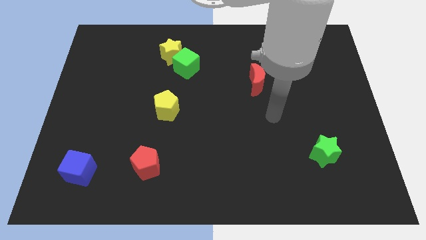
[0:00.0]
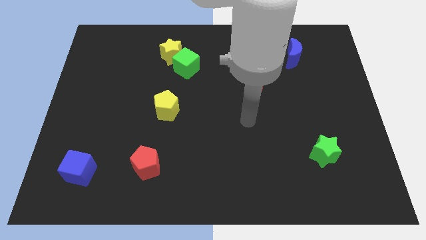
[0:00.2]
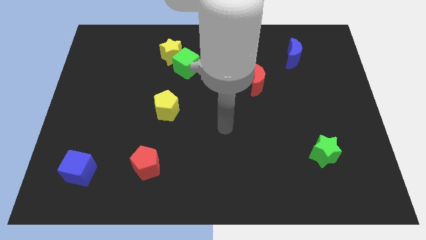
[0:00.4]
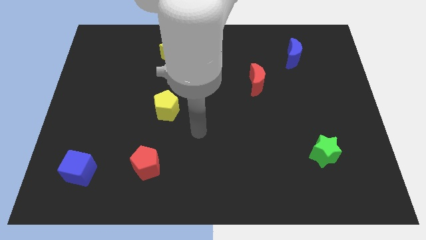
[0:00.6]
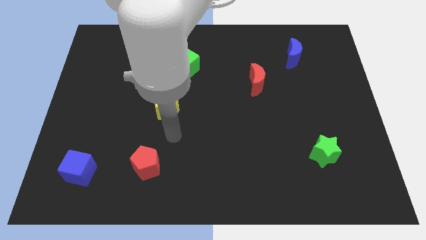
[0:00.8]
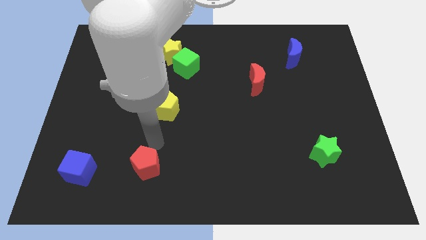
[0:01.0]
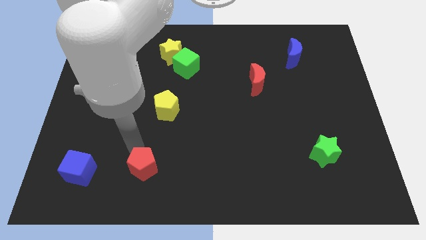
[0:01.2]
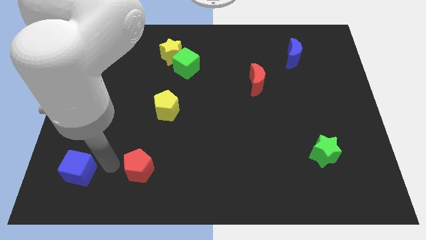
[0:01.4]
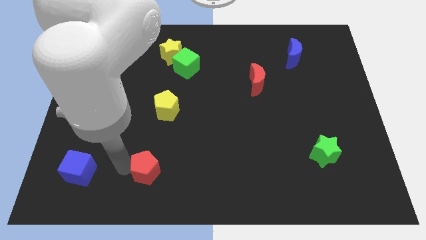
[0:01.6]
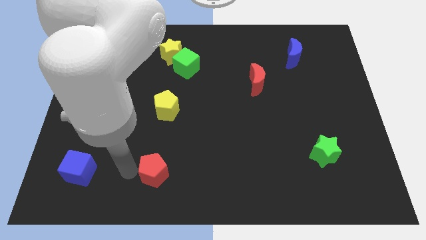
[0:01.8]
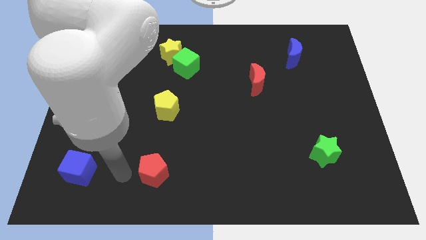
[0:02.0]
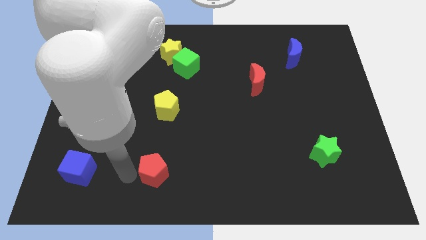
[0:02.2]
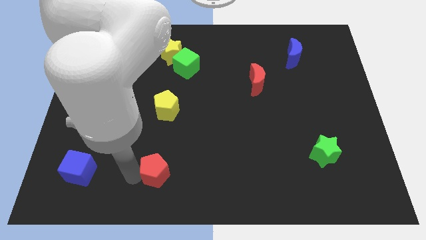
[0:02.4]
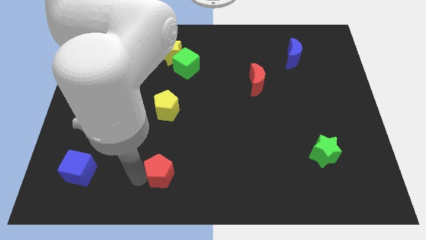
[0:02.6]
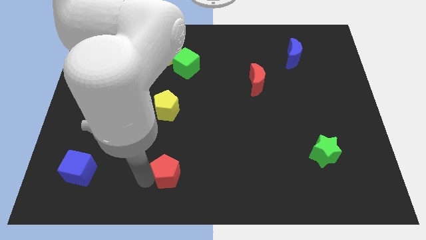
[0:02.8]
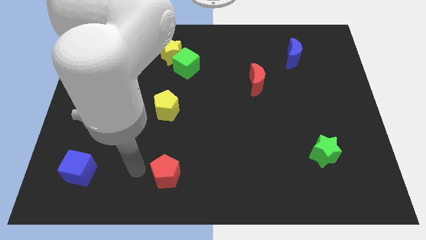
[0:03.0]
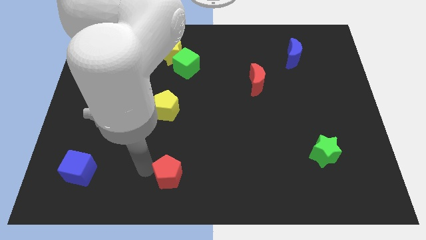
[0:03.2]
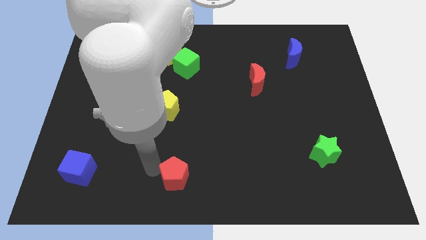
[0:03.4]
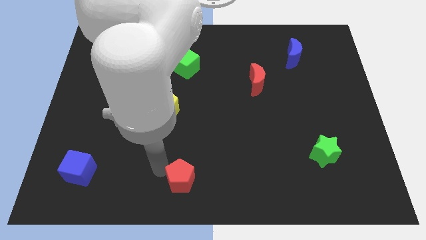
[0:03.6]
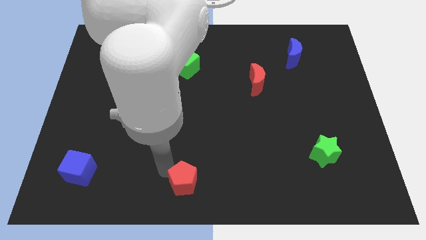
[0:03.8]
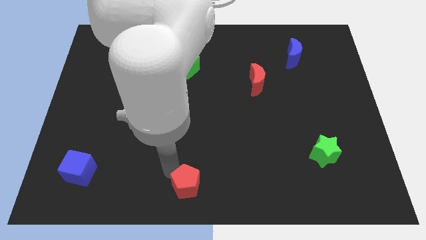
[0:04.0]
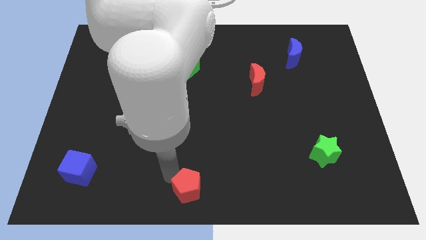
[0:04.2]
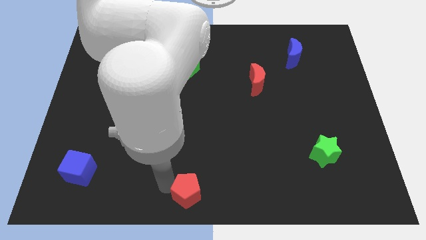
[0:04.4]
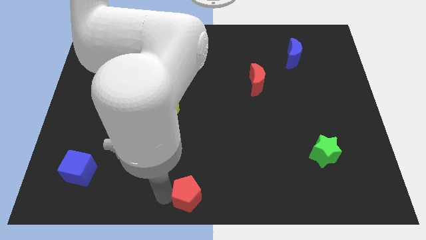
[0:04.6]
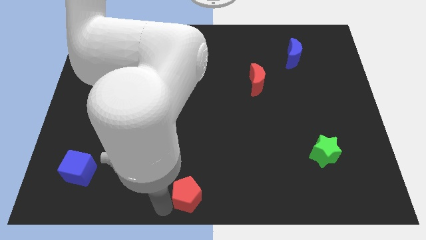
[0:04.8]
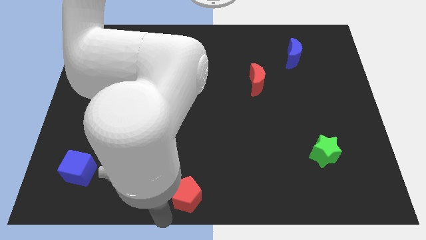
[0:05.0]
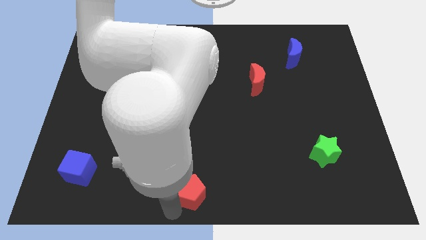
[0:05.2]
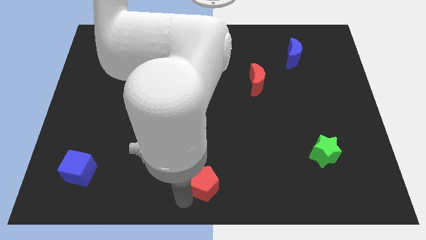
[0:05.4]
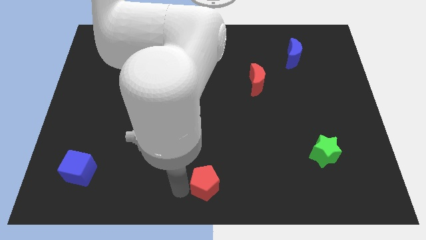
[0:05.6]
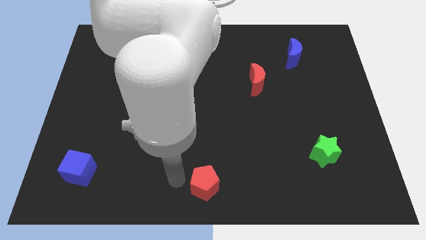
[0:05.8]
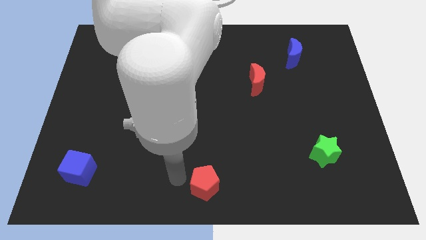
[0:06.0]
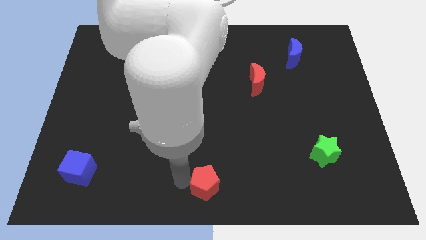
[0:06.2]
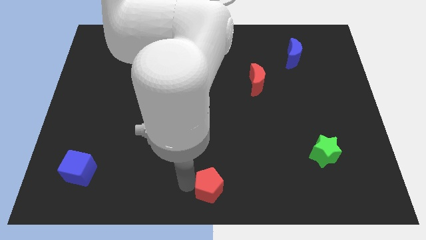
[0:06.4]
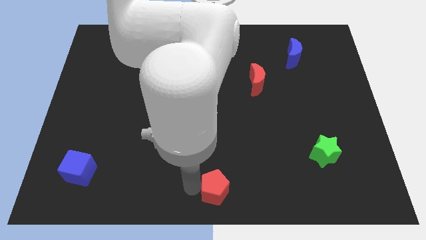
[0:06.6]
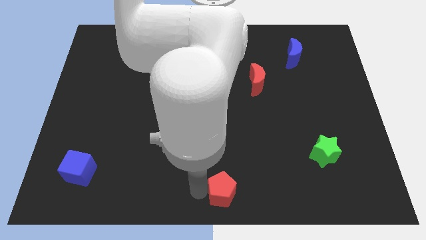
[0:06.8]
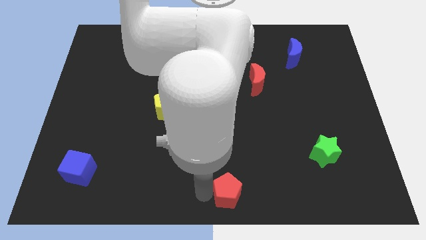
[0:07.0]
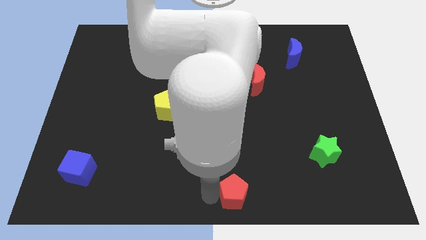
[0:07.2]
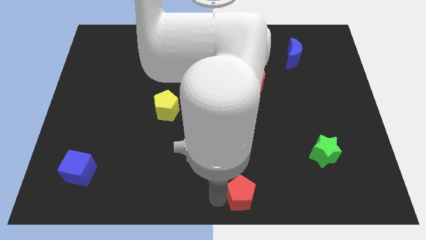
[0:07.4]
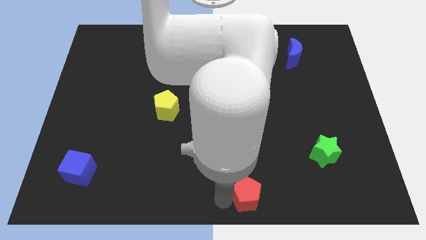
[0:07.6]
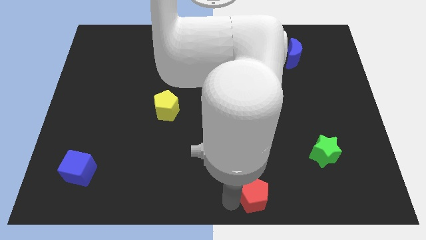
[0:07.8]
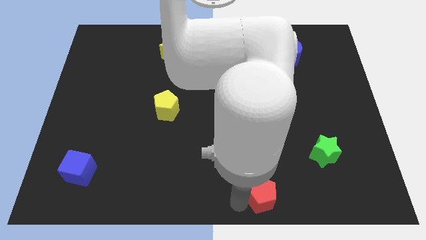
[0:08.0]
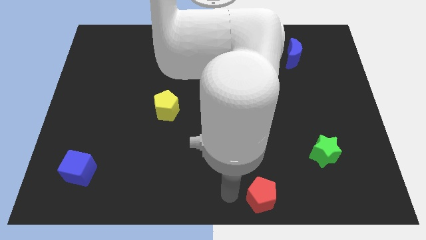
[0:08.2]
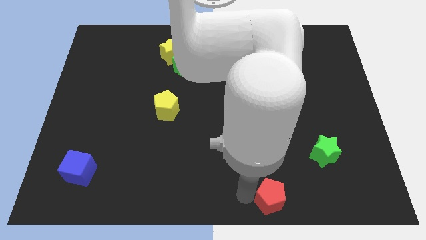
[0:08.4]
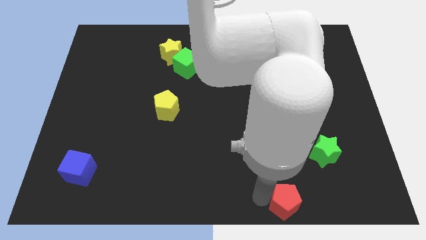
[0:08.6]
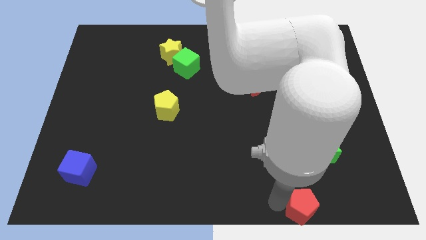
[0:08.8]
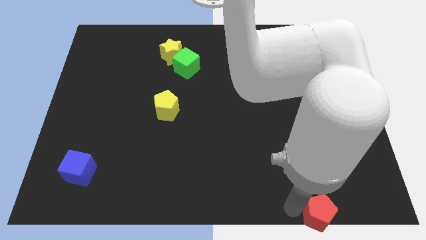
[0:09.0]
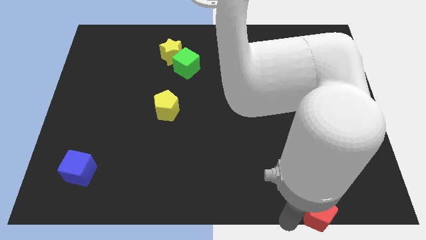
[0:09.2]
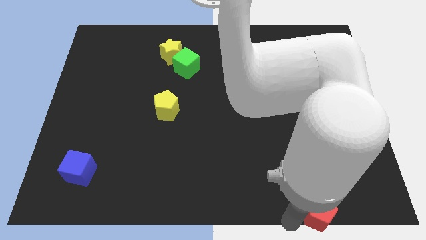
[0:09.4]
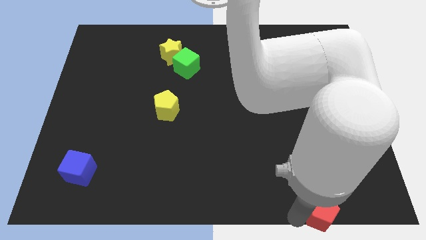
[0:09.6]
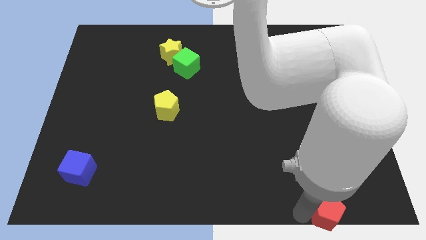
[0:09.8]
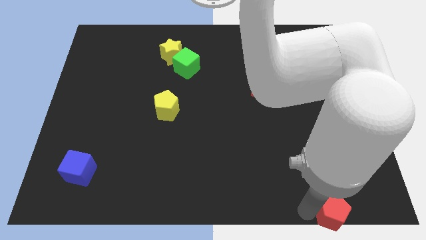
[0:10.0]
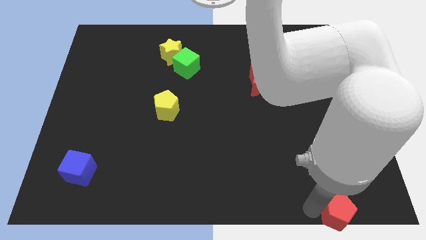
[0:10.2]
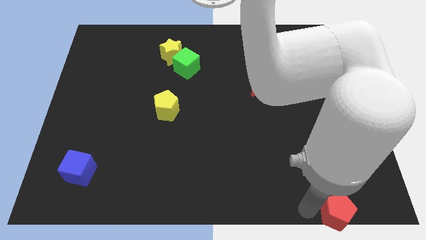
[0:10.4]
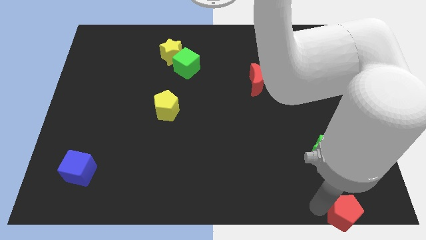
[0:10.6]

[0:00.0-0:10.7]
push the red pentagon to the bottom right corner

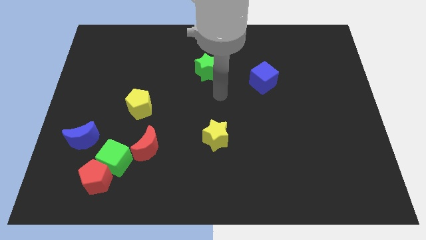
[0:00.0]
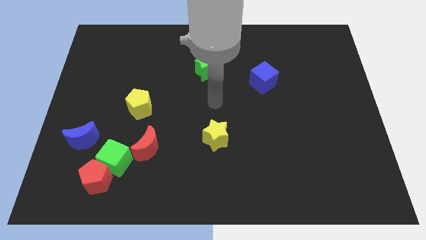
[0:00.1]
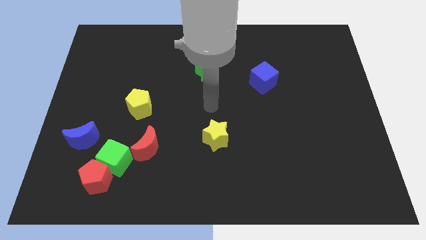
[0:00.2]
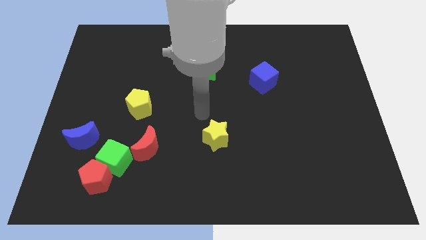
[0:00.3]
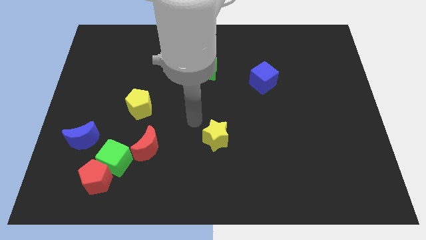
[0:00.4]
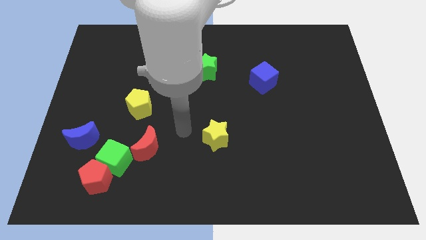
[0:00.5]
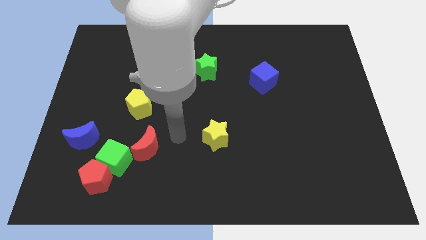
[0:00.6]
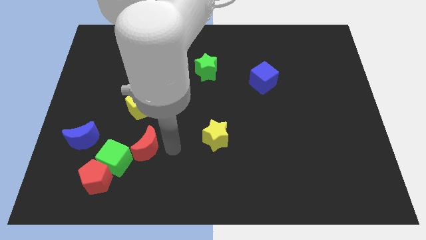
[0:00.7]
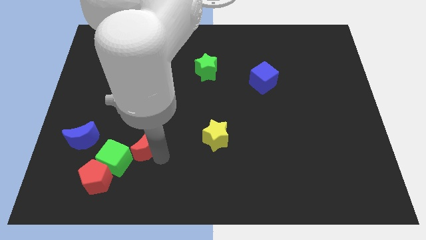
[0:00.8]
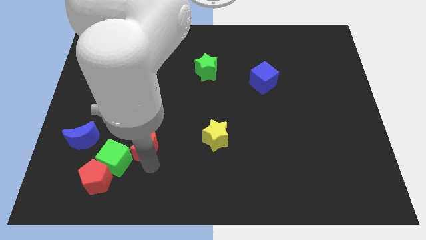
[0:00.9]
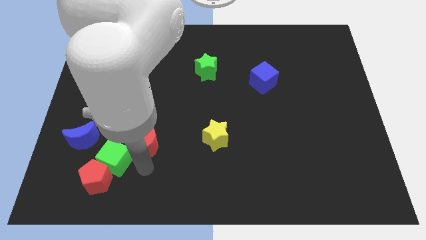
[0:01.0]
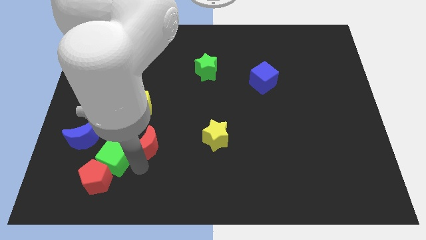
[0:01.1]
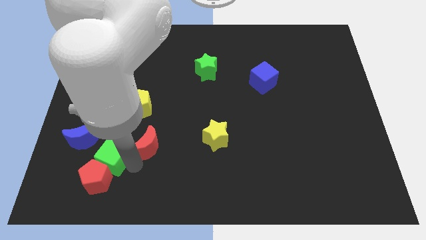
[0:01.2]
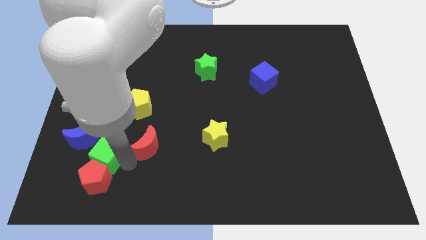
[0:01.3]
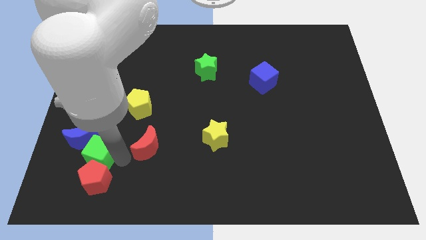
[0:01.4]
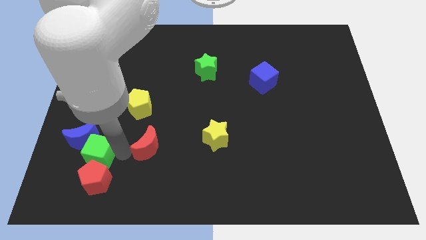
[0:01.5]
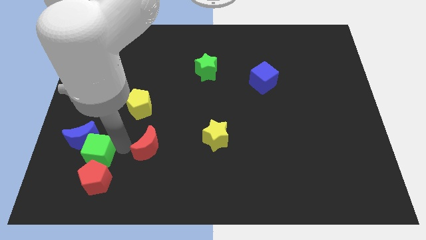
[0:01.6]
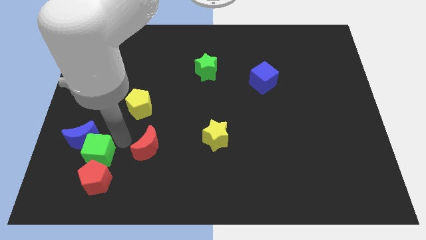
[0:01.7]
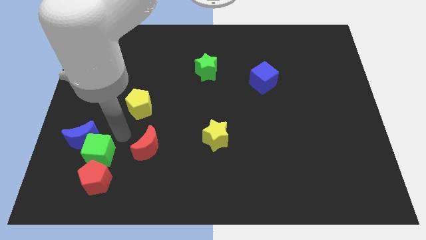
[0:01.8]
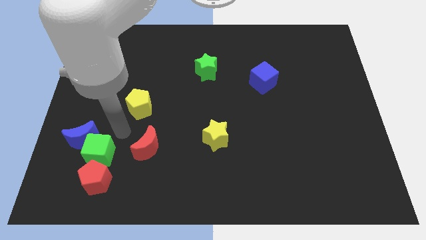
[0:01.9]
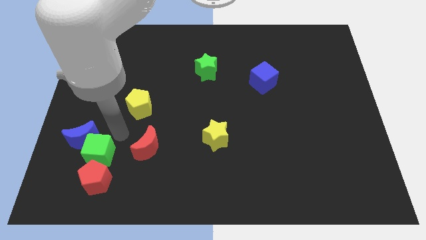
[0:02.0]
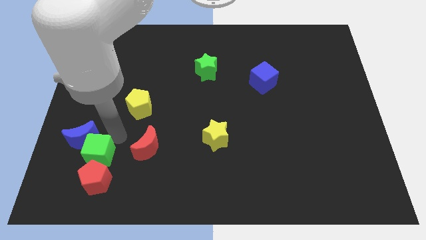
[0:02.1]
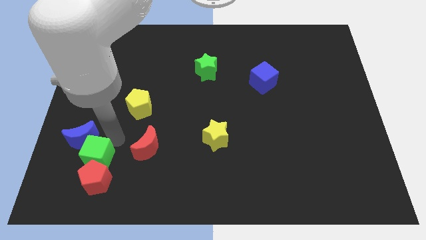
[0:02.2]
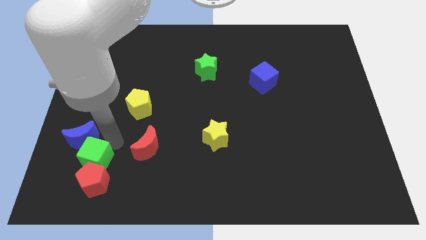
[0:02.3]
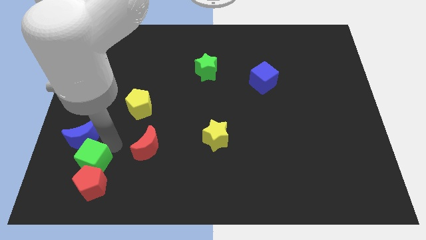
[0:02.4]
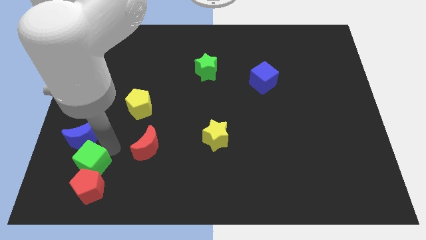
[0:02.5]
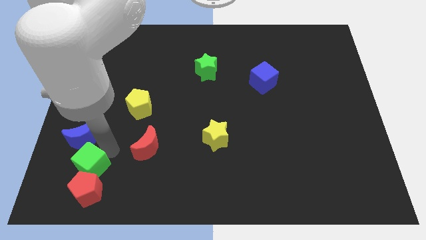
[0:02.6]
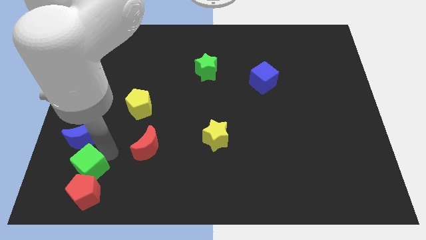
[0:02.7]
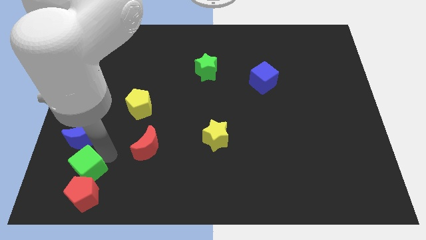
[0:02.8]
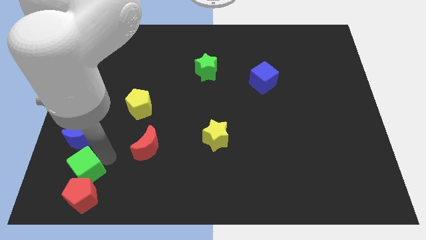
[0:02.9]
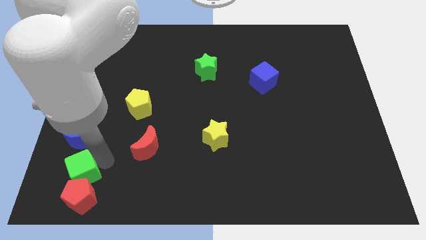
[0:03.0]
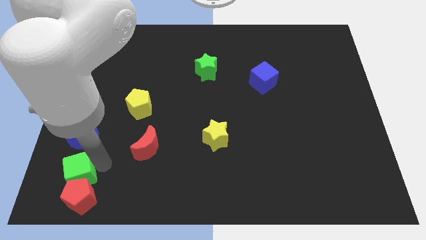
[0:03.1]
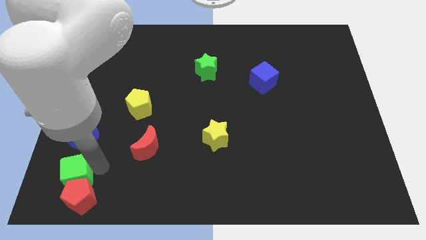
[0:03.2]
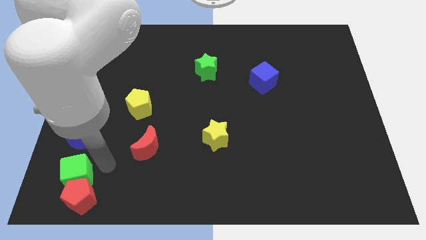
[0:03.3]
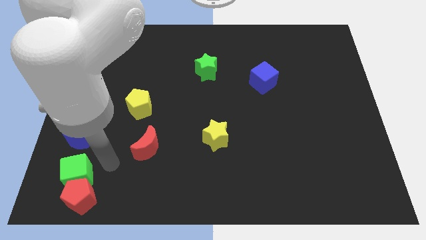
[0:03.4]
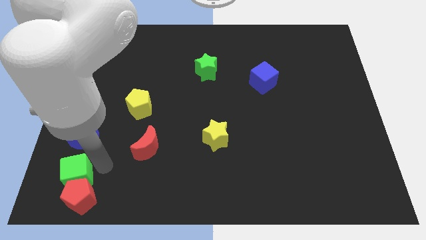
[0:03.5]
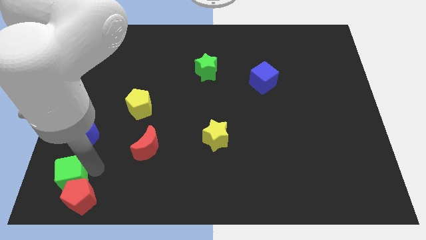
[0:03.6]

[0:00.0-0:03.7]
push the green cube to the bottom left corner
